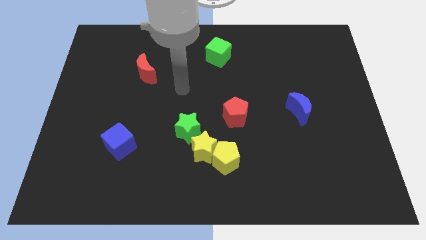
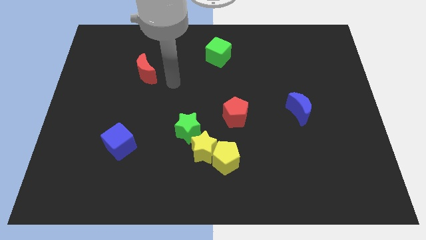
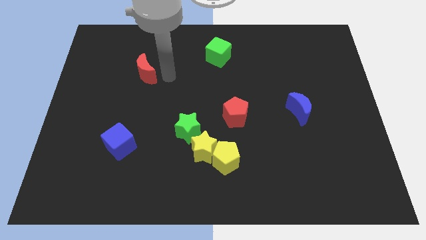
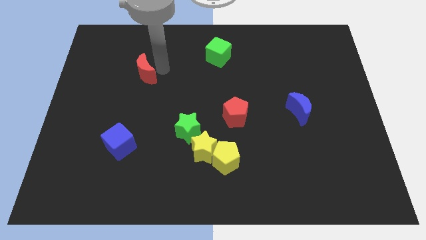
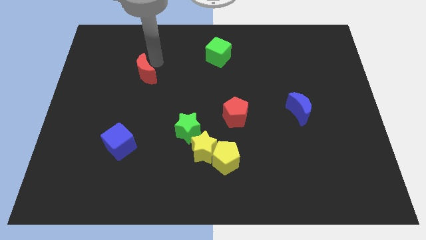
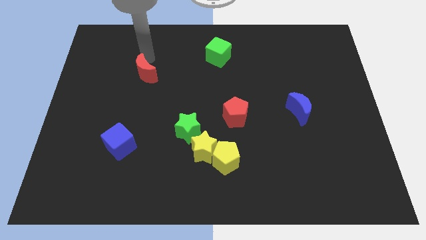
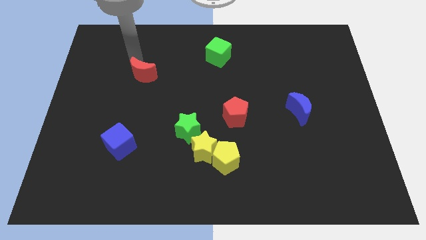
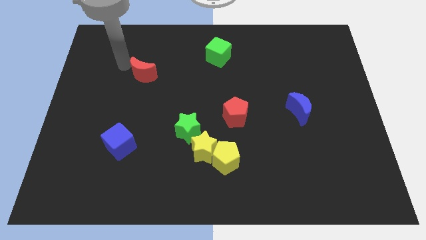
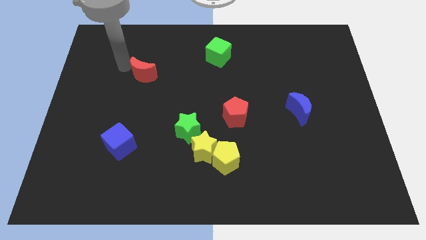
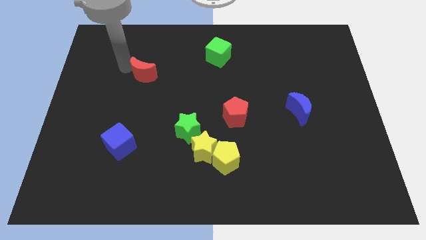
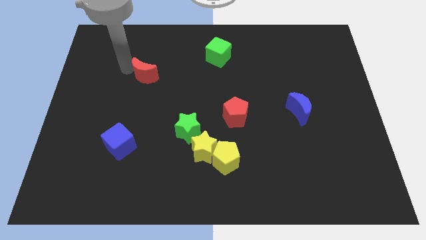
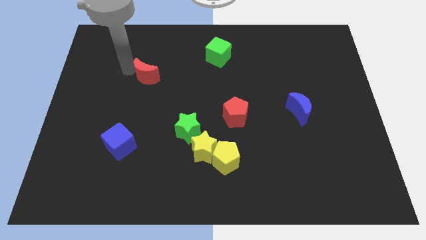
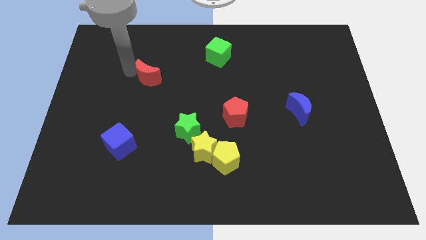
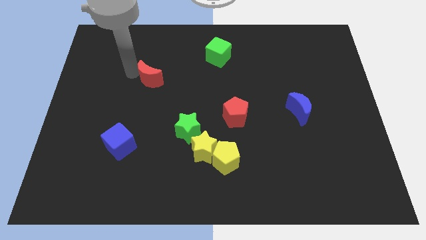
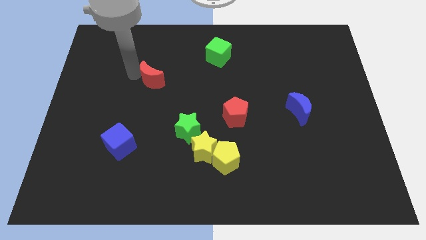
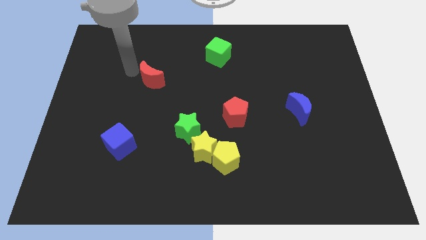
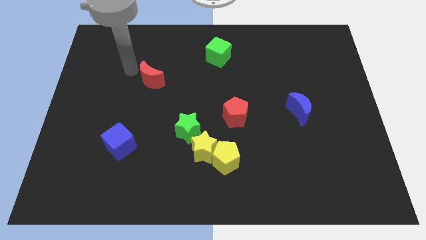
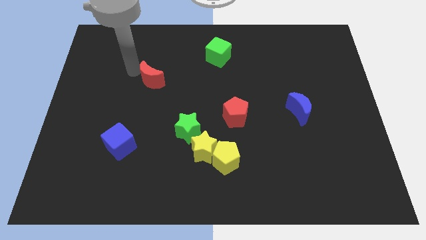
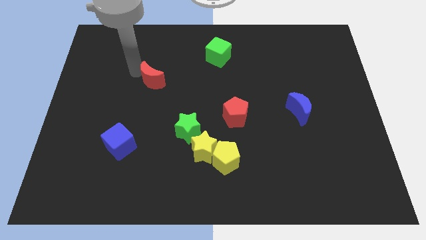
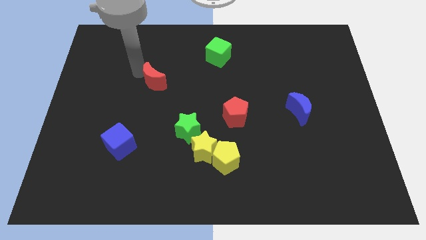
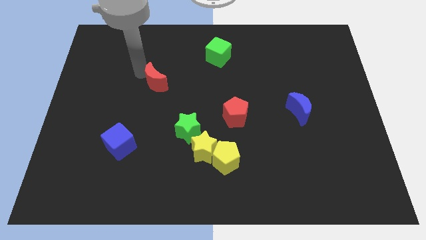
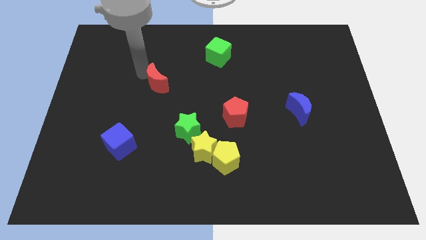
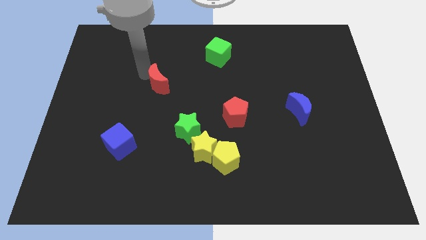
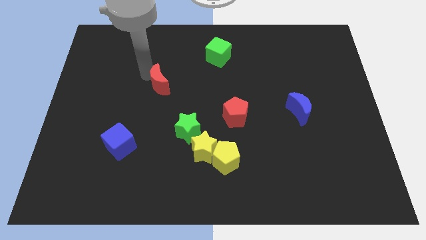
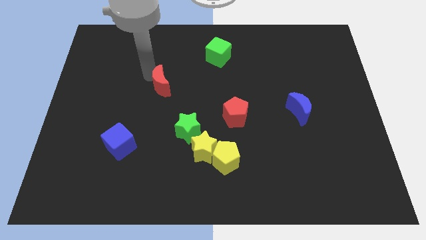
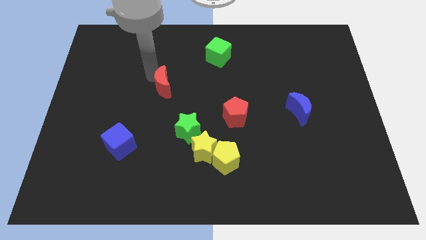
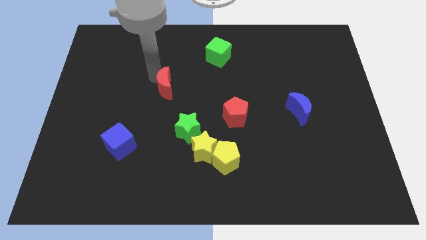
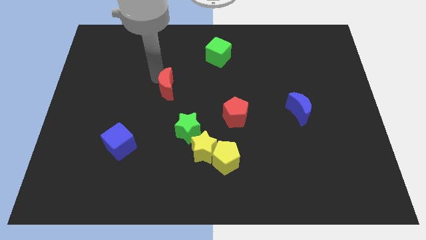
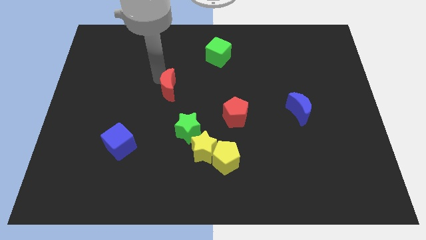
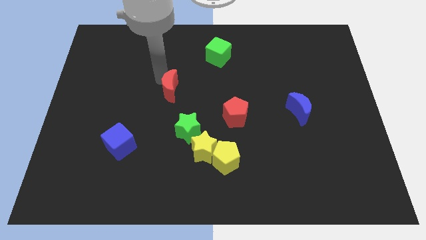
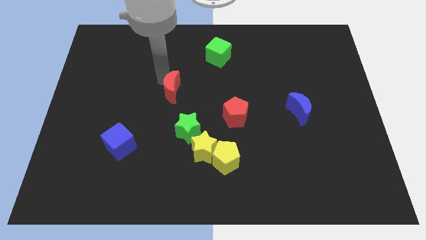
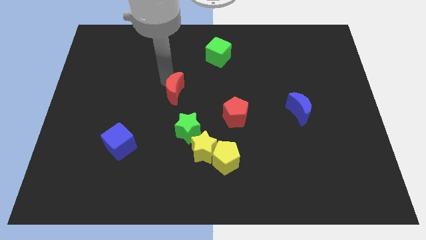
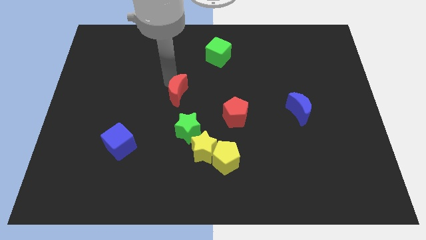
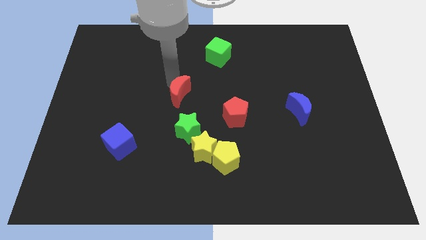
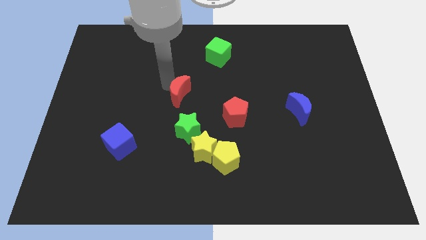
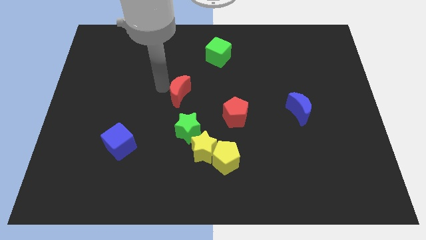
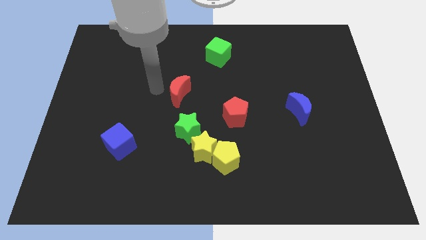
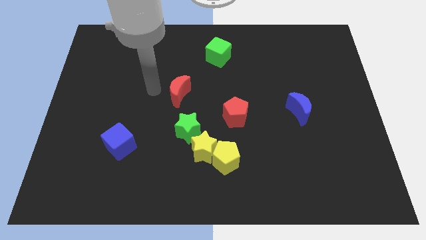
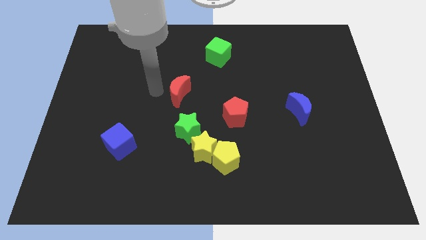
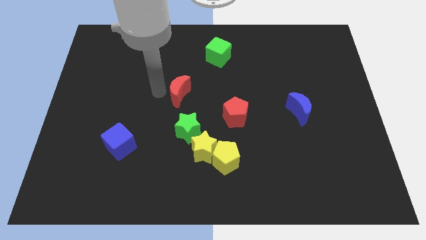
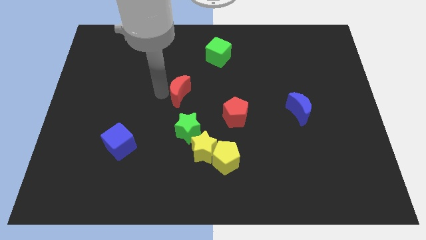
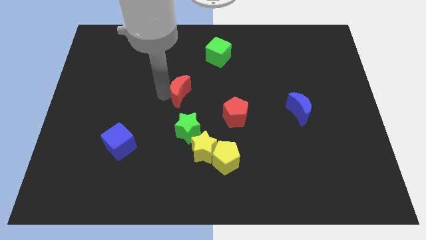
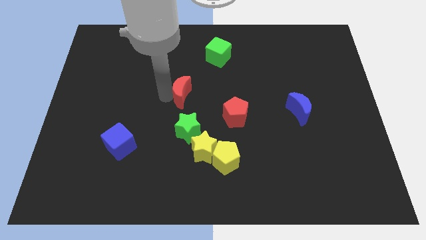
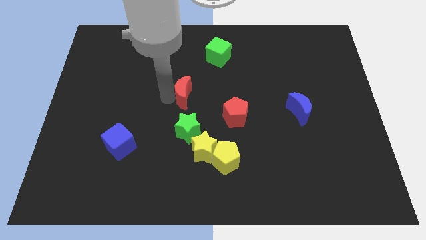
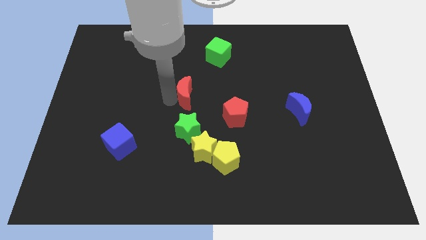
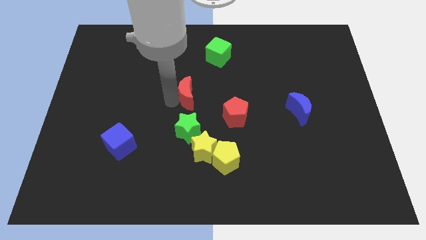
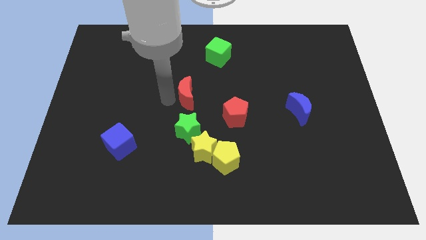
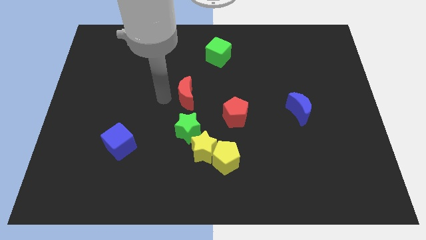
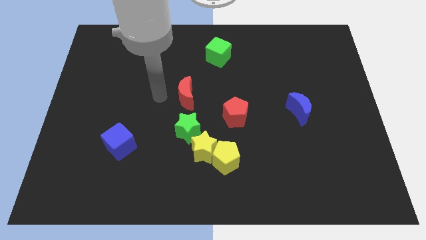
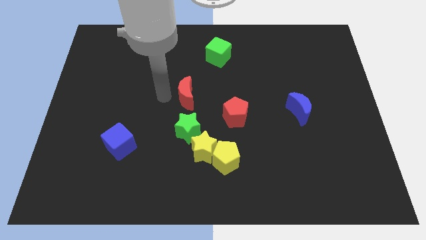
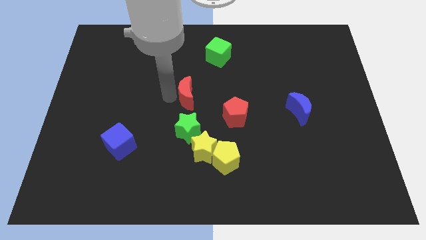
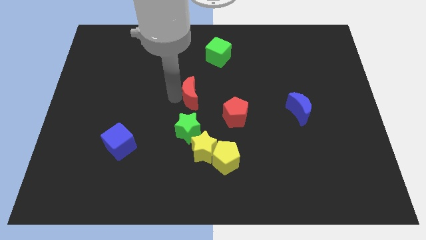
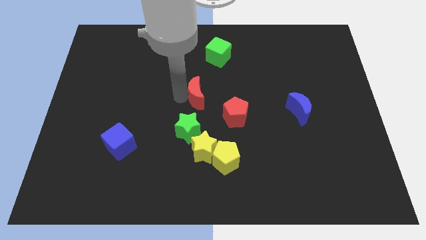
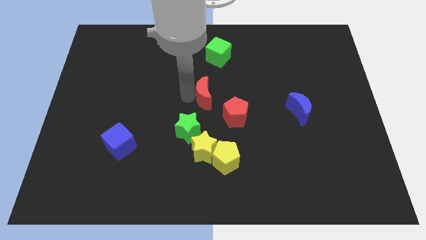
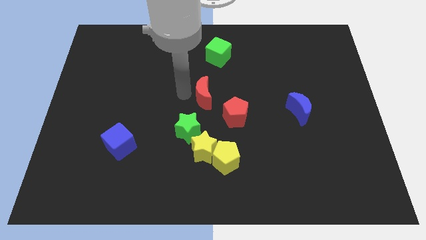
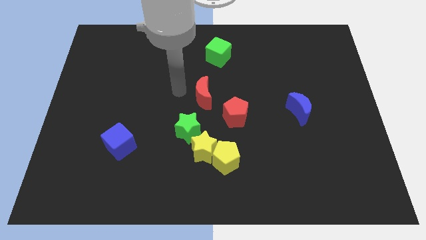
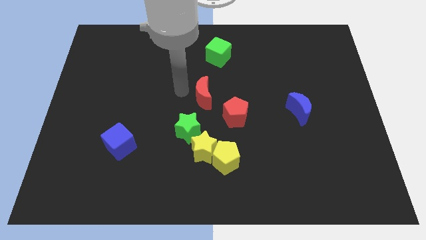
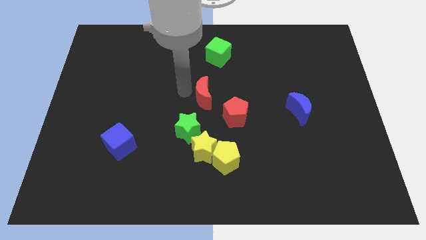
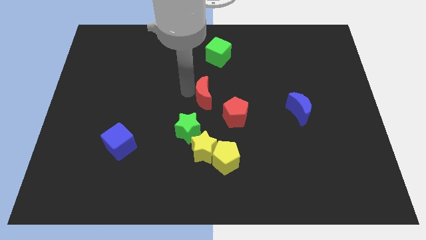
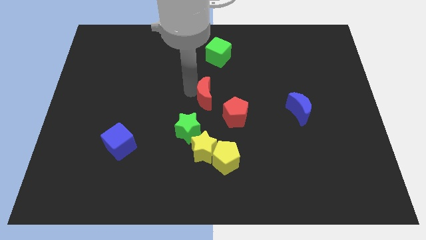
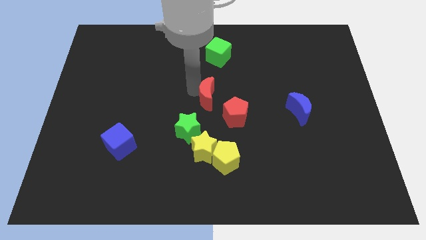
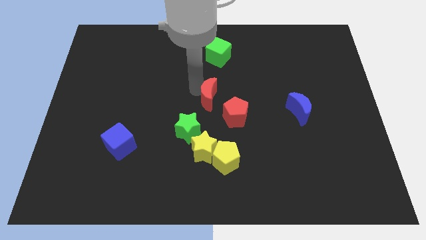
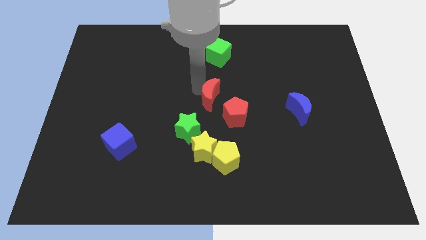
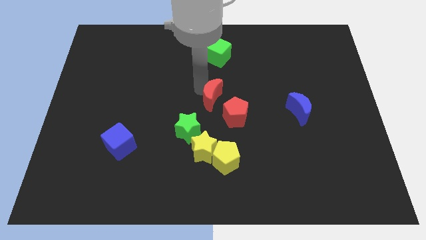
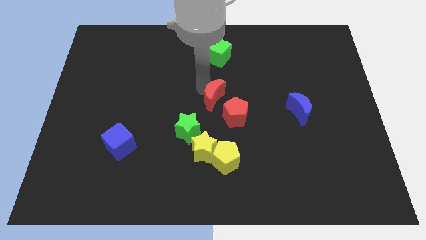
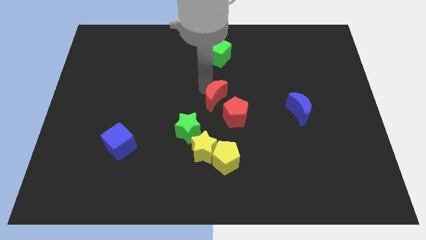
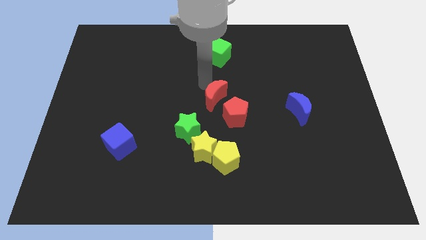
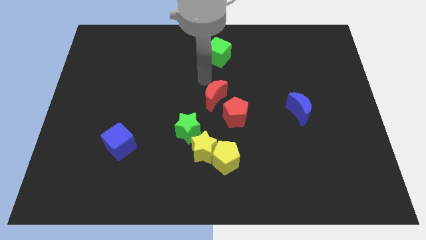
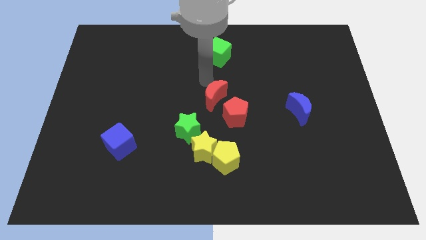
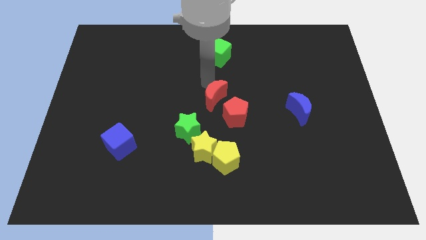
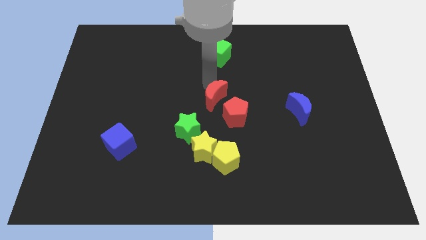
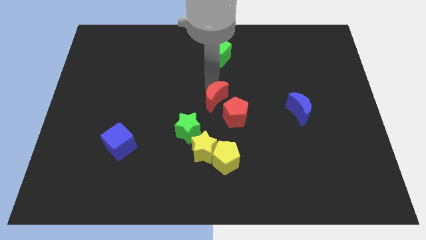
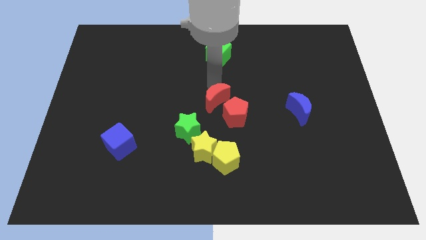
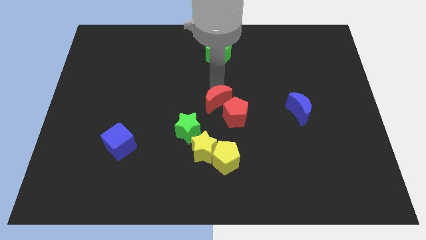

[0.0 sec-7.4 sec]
move the red moon to the top side of the yellow pentagon
